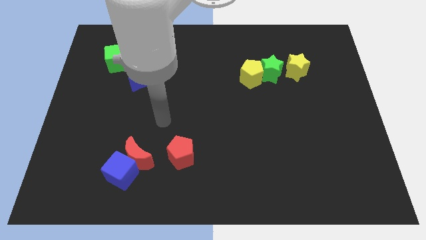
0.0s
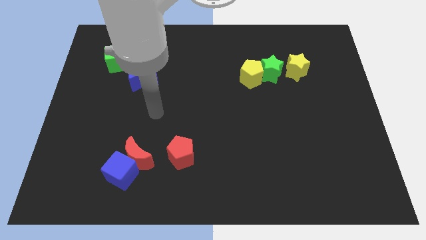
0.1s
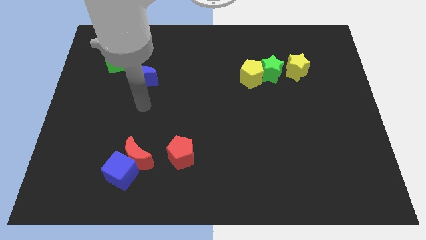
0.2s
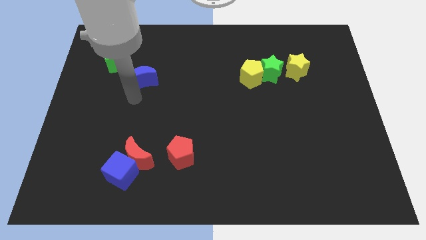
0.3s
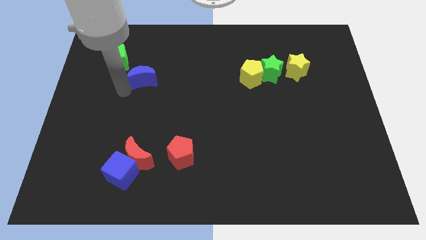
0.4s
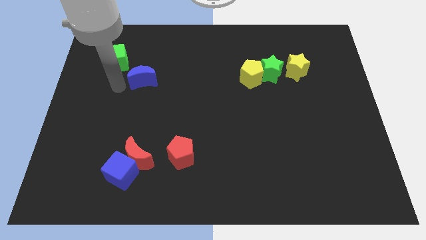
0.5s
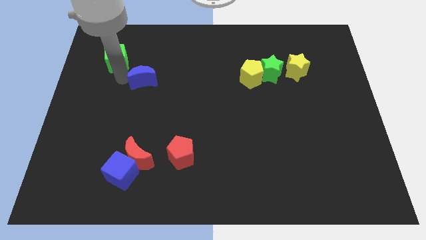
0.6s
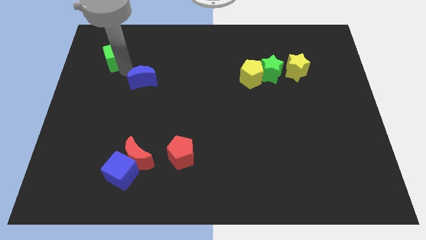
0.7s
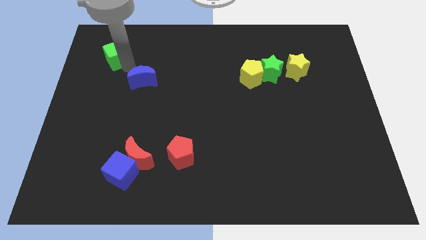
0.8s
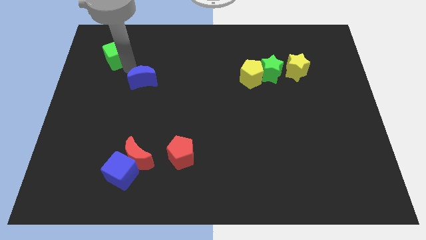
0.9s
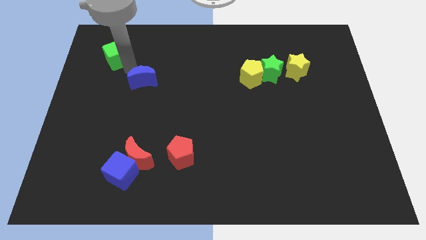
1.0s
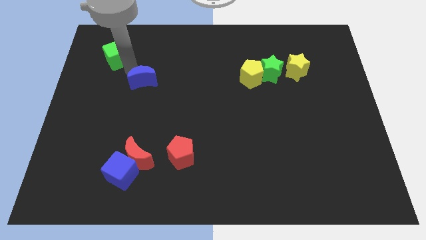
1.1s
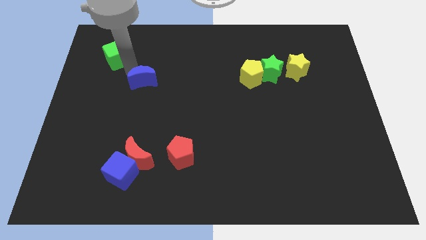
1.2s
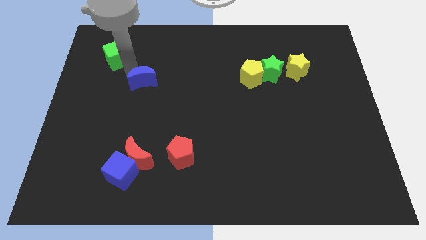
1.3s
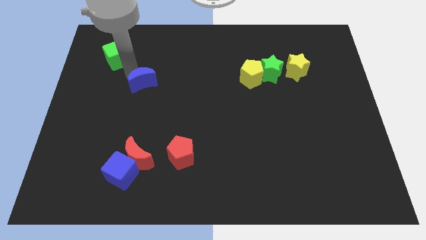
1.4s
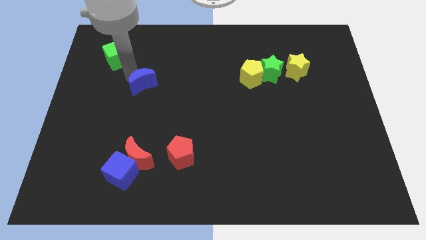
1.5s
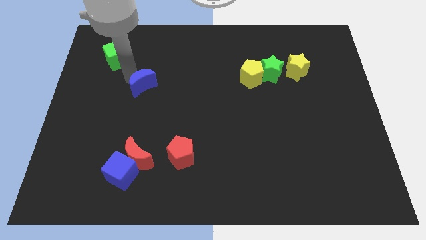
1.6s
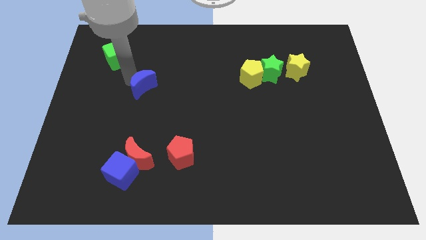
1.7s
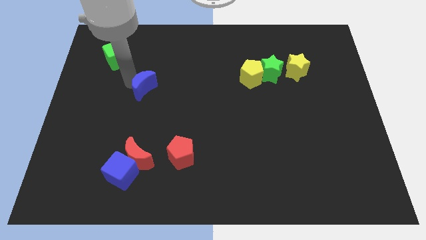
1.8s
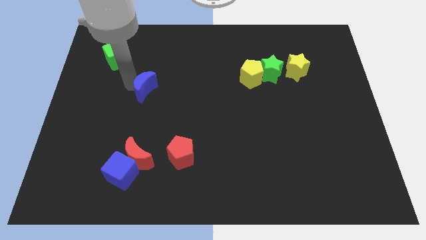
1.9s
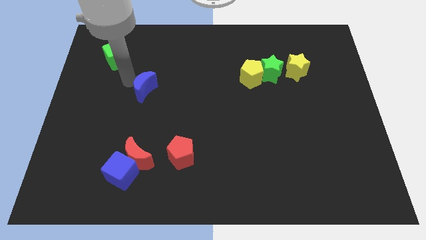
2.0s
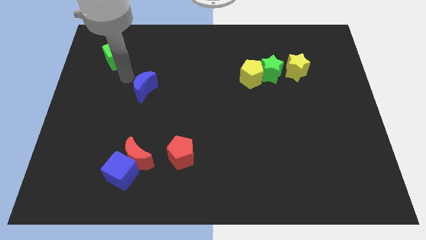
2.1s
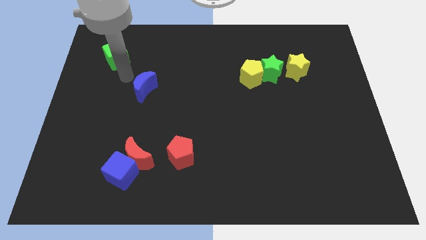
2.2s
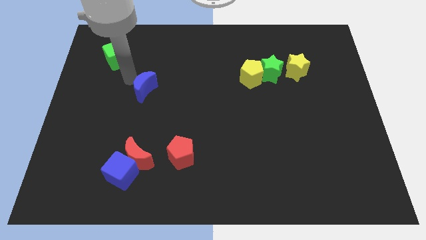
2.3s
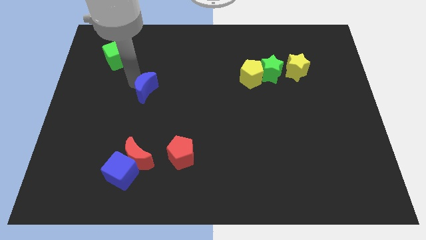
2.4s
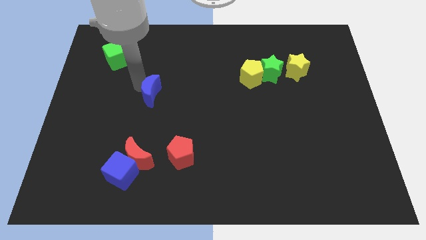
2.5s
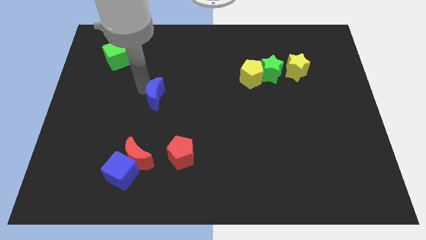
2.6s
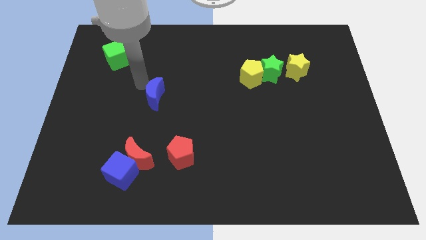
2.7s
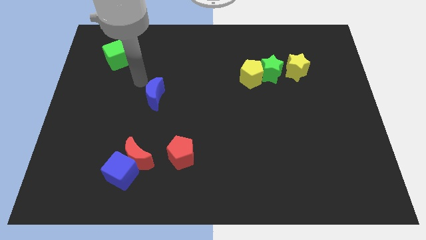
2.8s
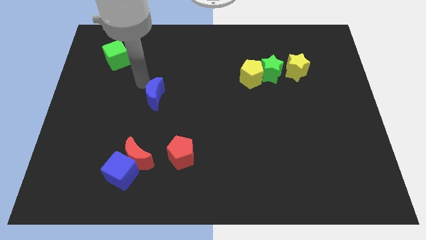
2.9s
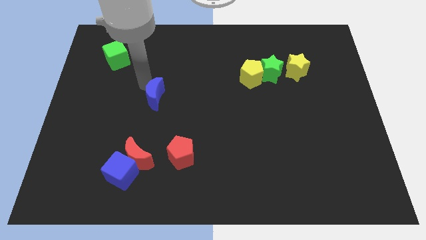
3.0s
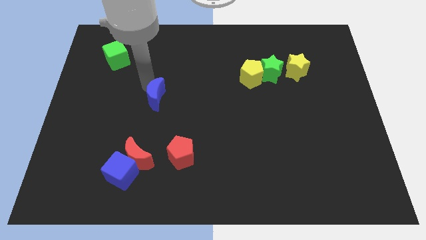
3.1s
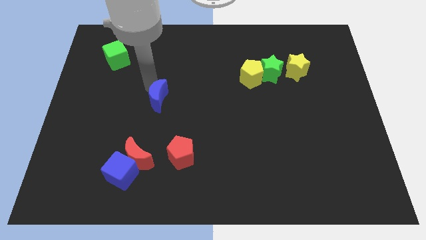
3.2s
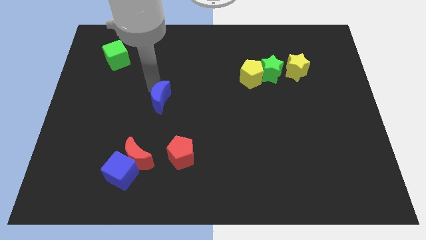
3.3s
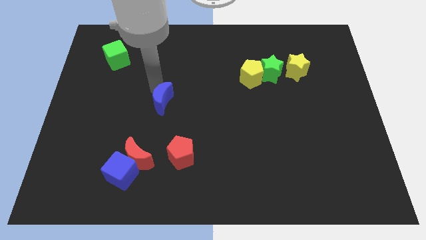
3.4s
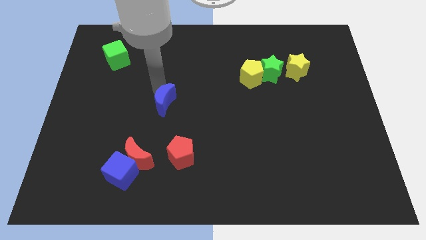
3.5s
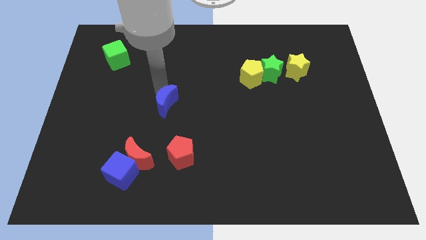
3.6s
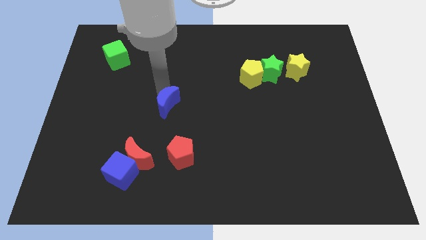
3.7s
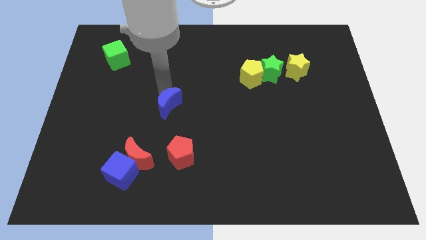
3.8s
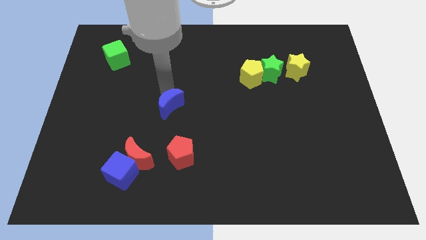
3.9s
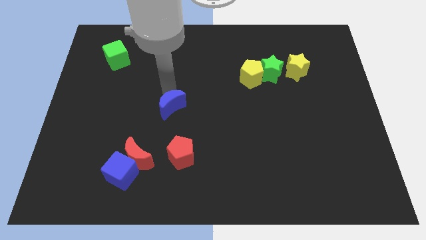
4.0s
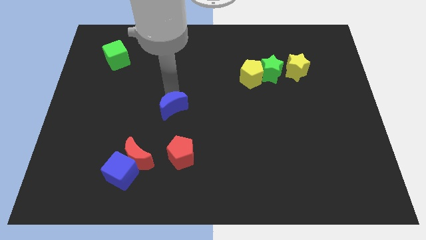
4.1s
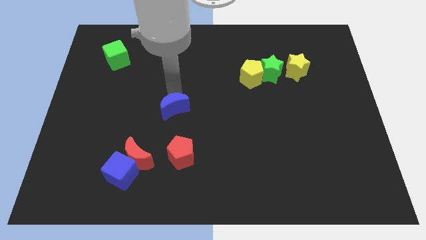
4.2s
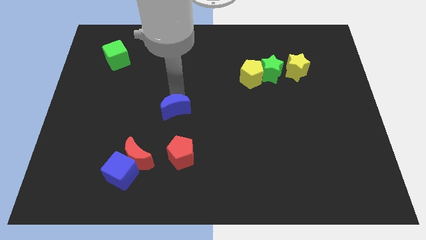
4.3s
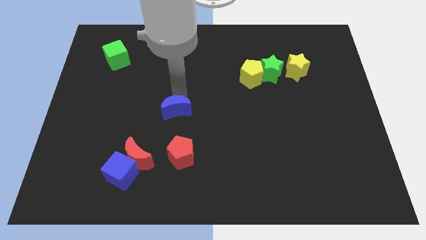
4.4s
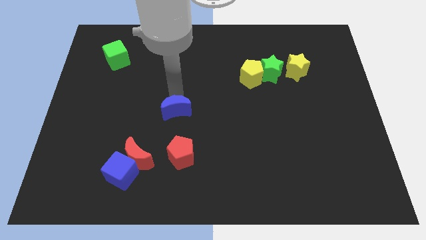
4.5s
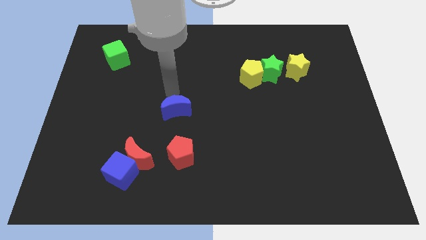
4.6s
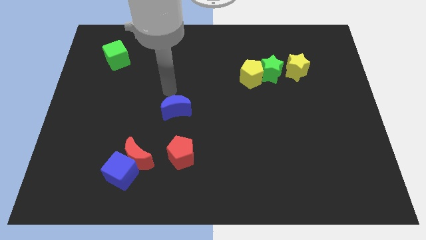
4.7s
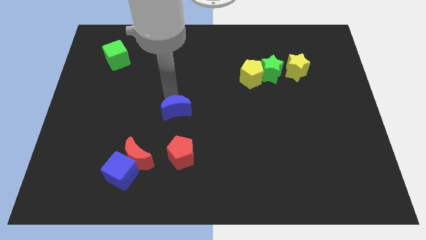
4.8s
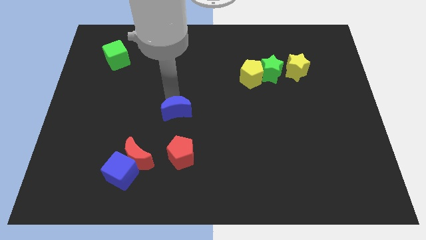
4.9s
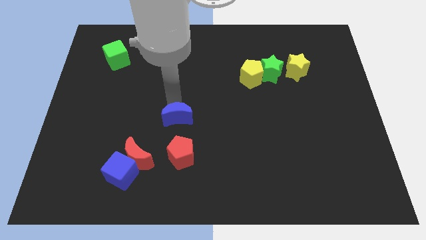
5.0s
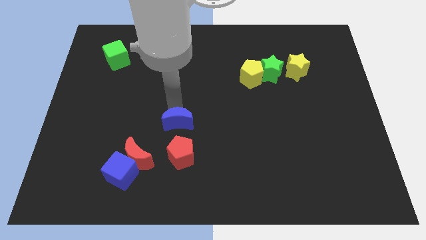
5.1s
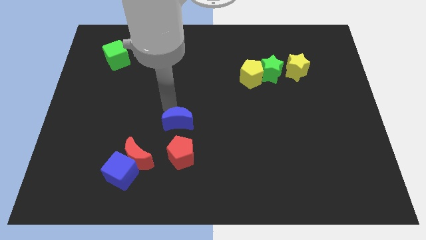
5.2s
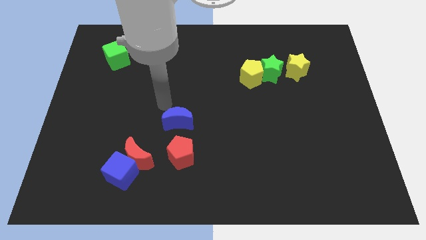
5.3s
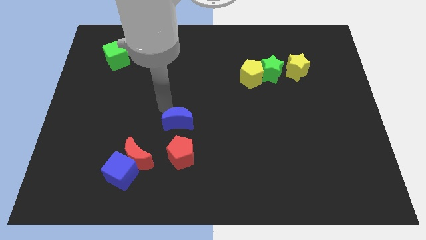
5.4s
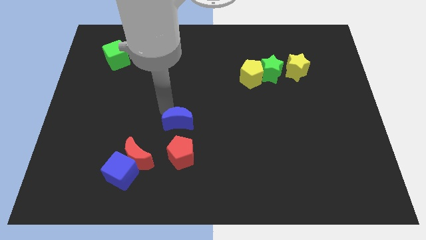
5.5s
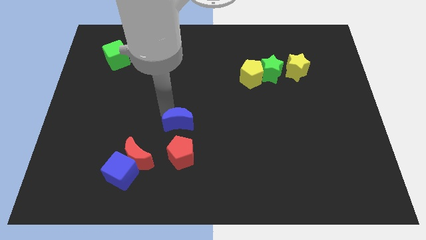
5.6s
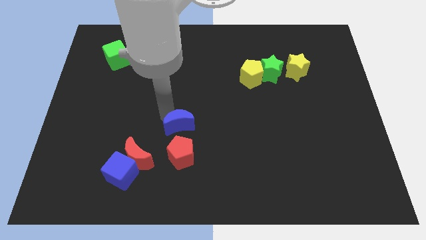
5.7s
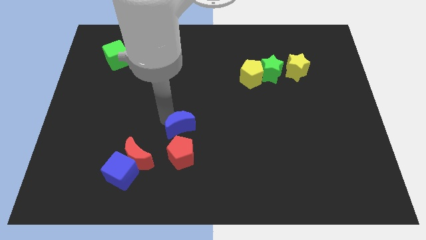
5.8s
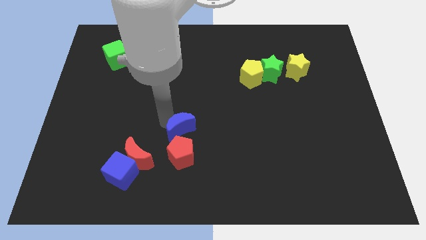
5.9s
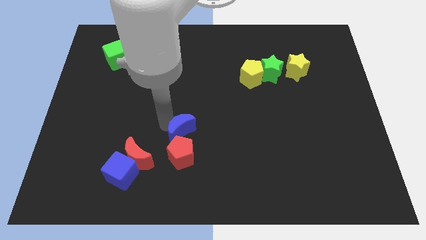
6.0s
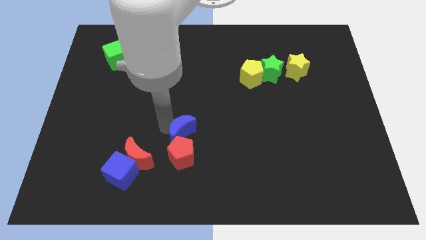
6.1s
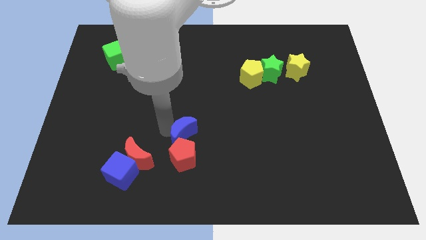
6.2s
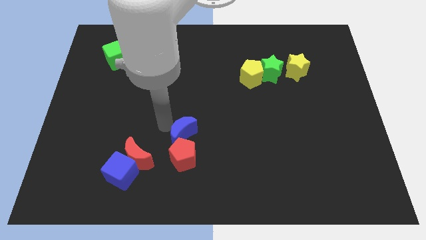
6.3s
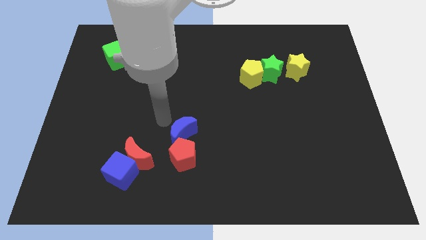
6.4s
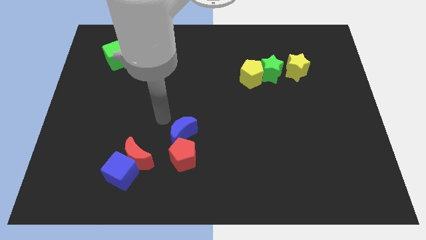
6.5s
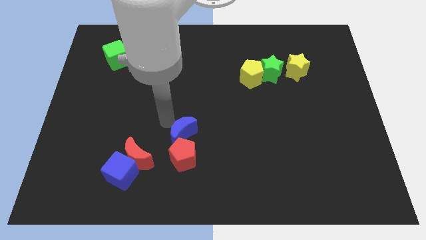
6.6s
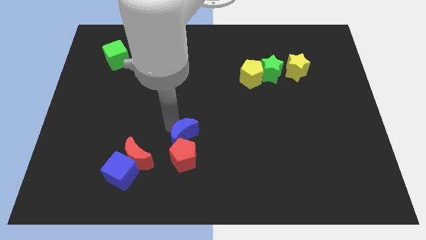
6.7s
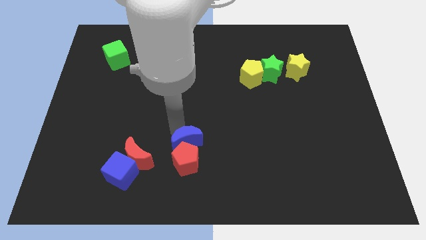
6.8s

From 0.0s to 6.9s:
push the blue moon to the right of the red moon

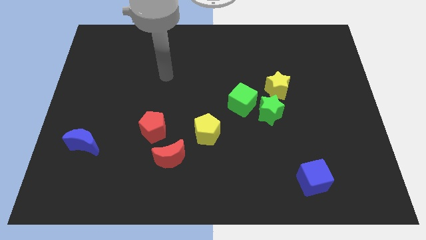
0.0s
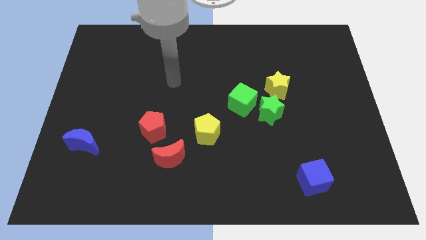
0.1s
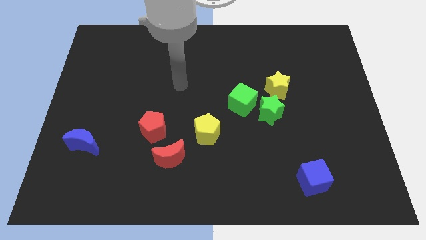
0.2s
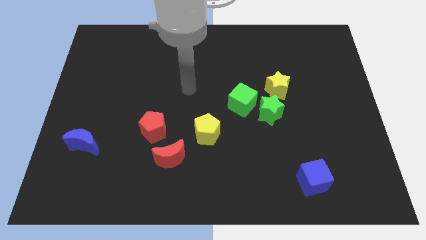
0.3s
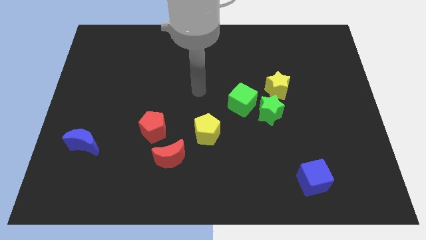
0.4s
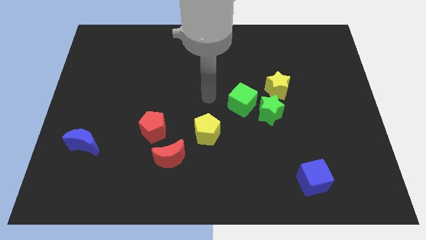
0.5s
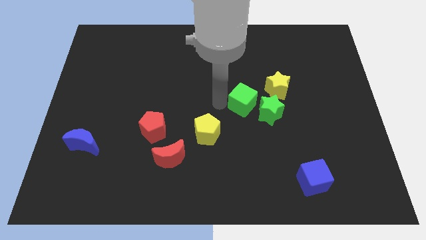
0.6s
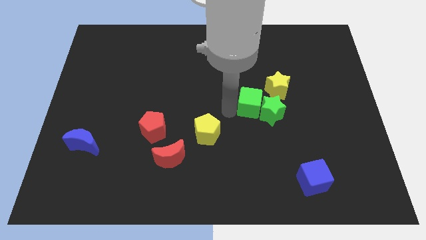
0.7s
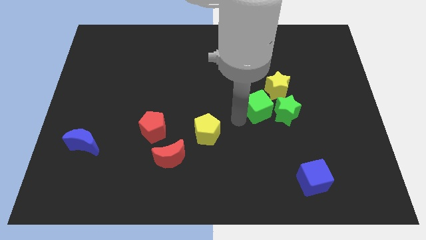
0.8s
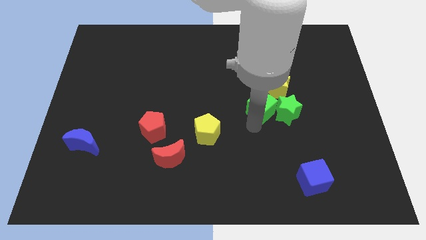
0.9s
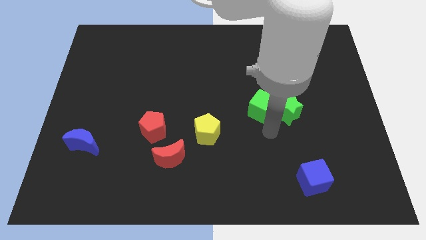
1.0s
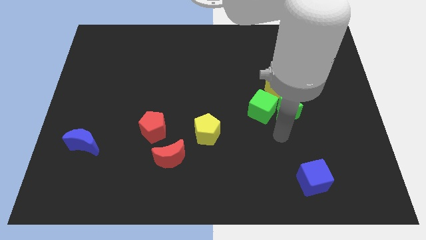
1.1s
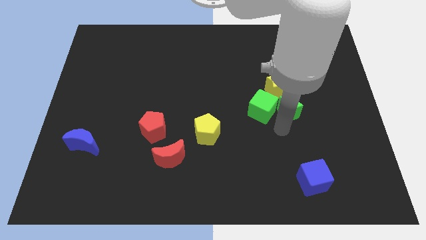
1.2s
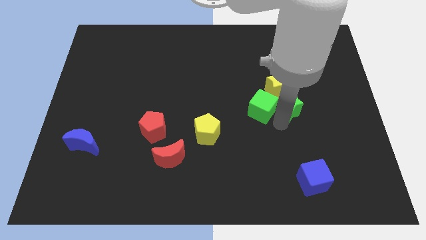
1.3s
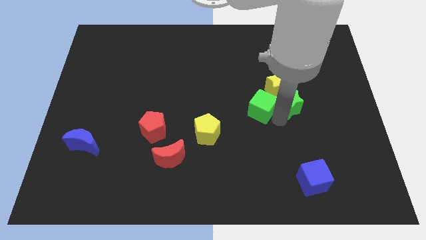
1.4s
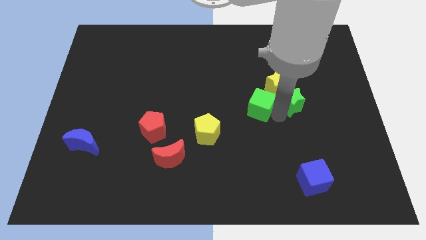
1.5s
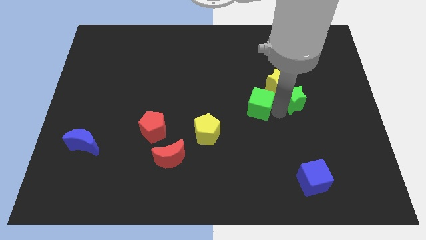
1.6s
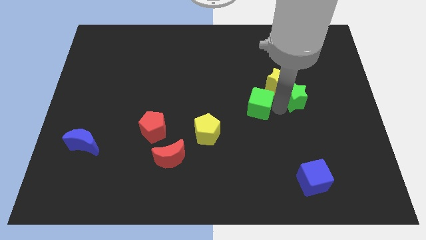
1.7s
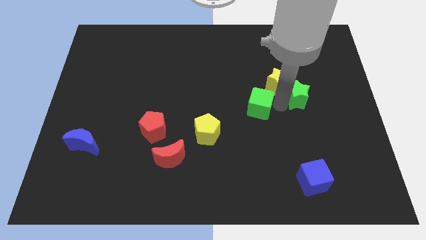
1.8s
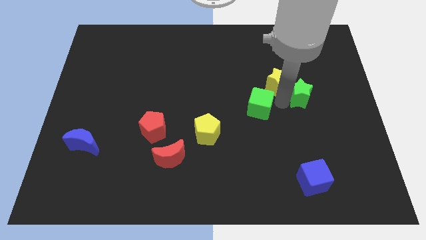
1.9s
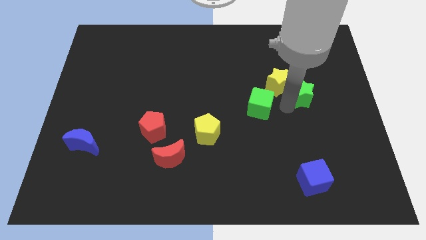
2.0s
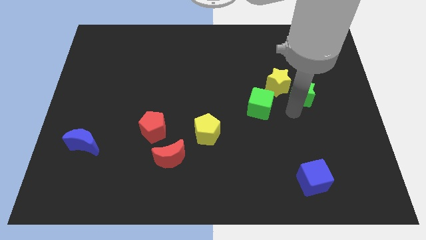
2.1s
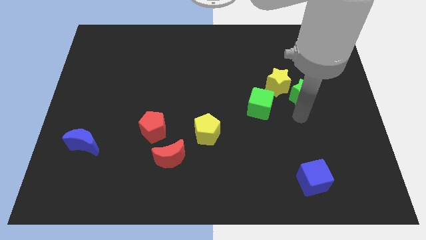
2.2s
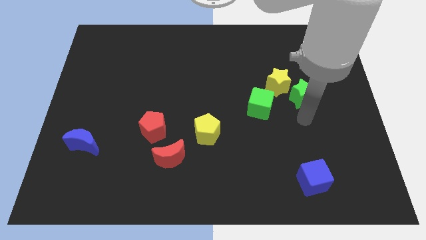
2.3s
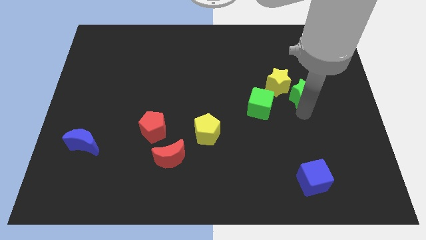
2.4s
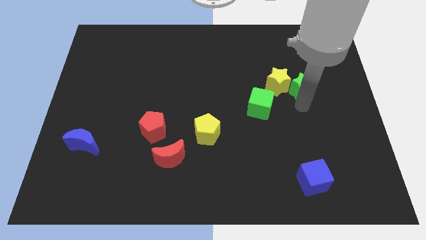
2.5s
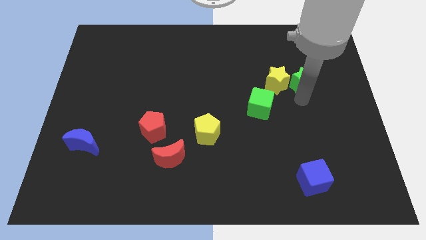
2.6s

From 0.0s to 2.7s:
push the green star diagonally up and to the right of the yellow star
